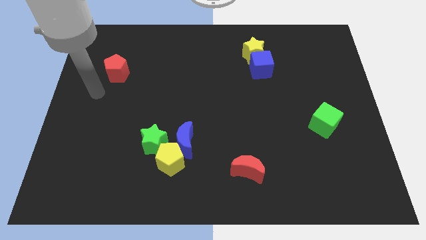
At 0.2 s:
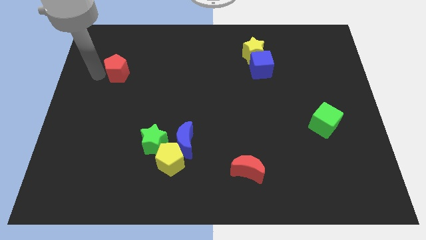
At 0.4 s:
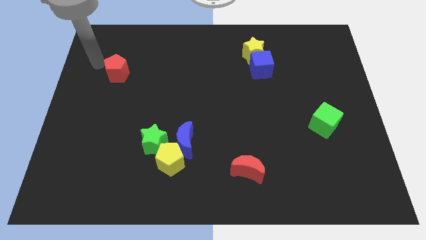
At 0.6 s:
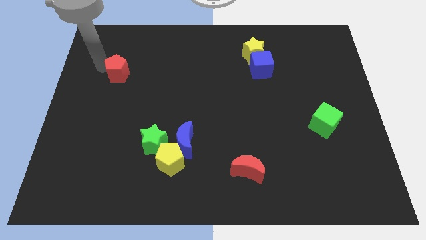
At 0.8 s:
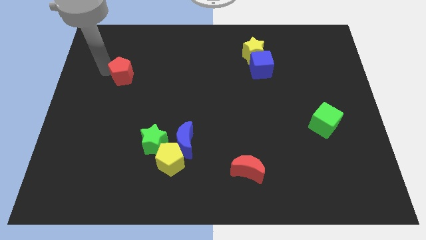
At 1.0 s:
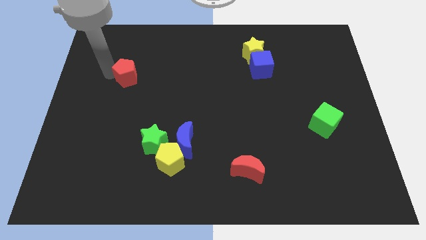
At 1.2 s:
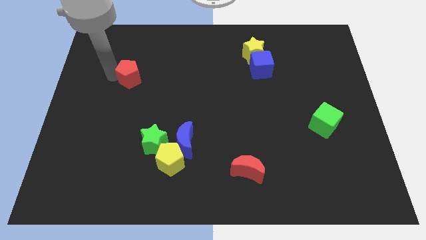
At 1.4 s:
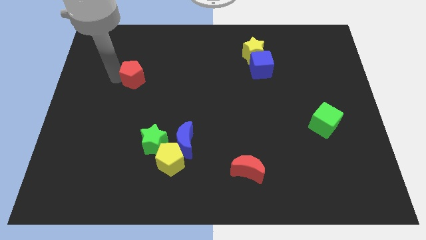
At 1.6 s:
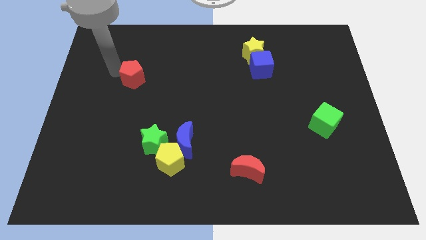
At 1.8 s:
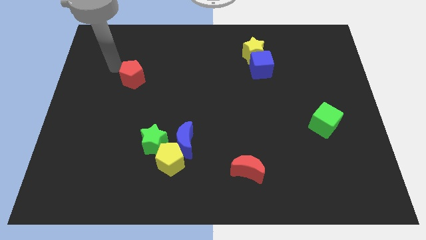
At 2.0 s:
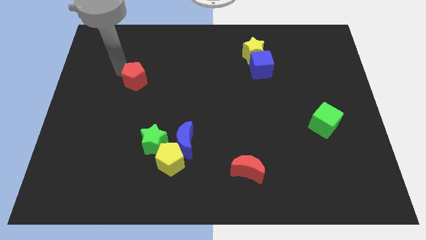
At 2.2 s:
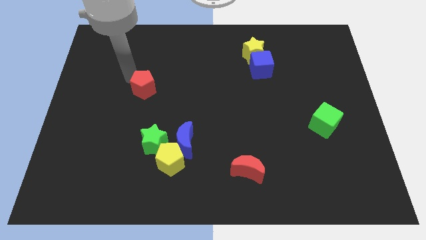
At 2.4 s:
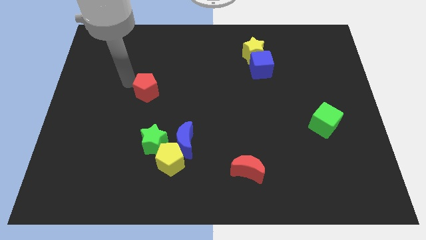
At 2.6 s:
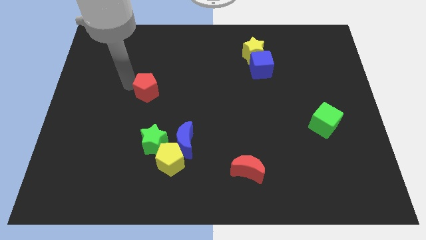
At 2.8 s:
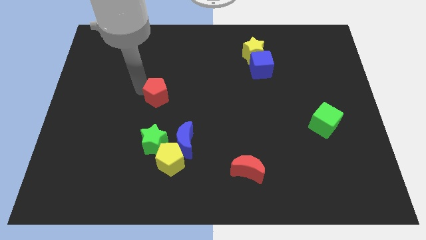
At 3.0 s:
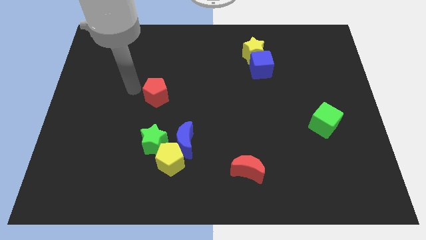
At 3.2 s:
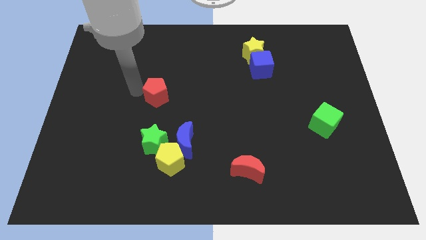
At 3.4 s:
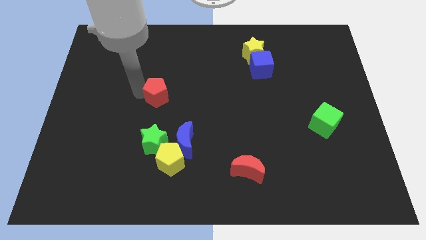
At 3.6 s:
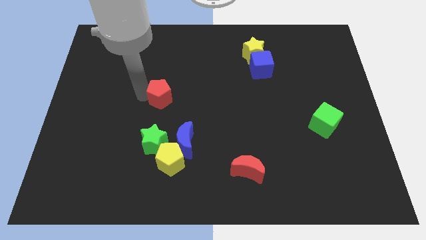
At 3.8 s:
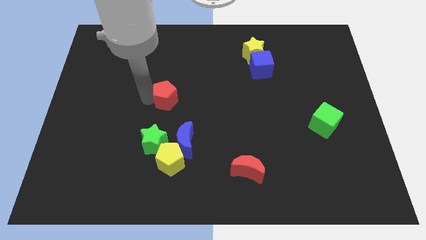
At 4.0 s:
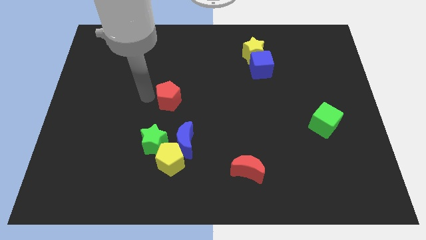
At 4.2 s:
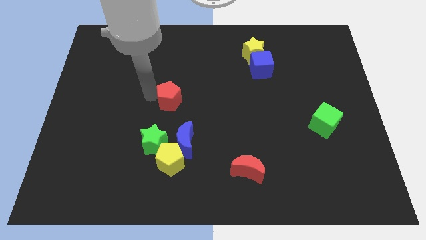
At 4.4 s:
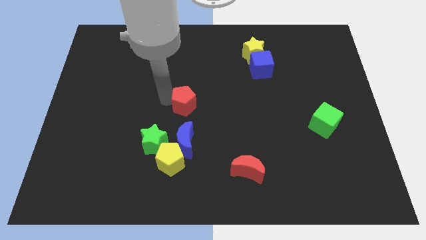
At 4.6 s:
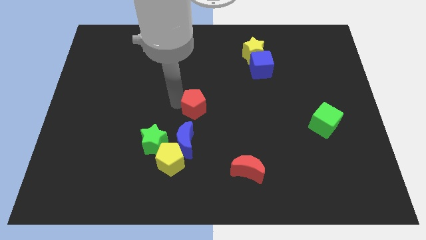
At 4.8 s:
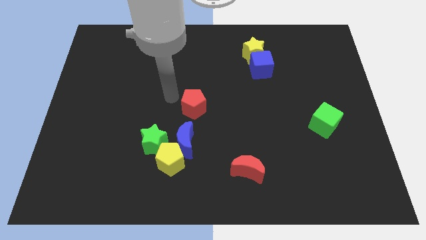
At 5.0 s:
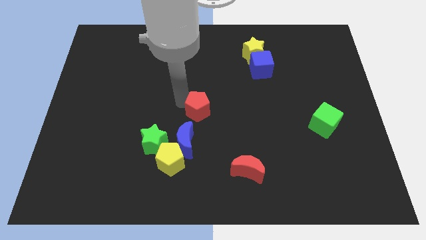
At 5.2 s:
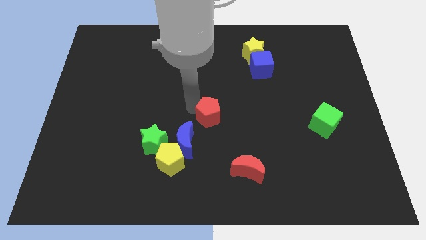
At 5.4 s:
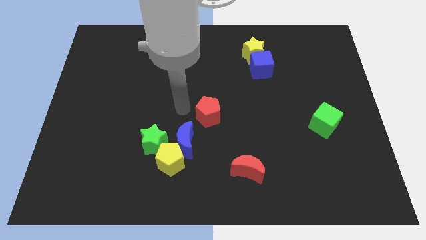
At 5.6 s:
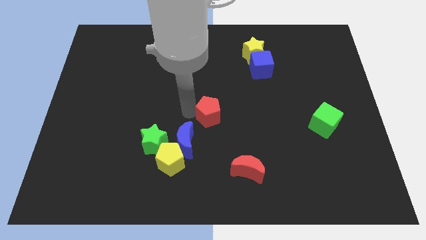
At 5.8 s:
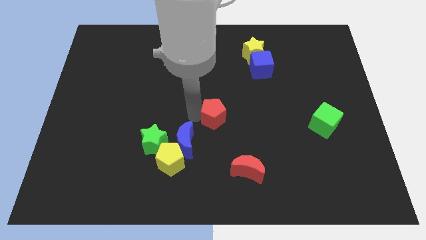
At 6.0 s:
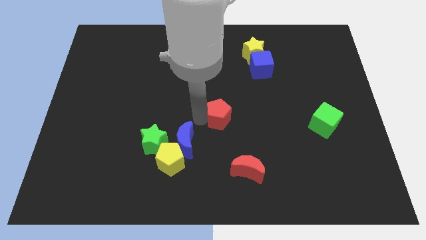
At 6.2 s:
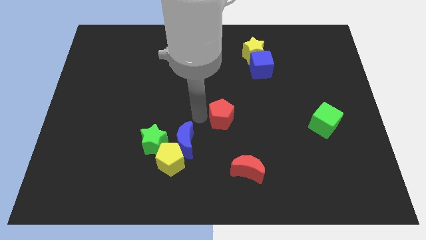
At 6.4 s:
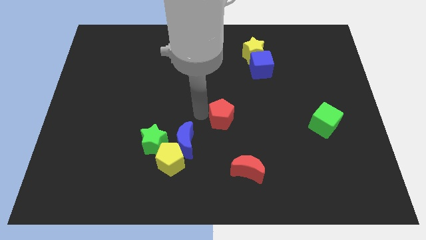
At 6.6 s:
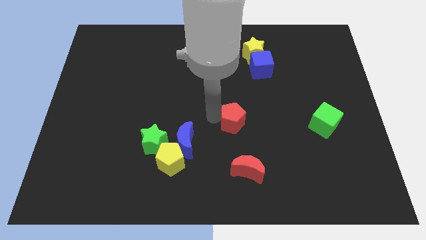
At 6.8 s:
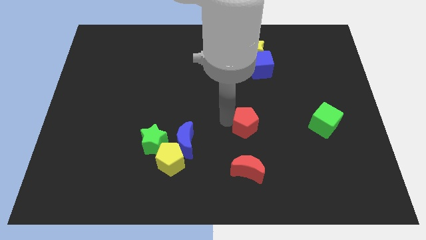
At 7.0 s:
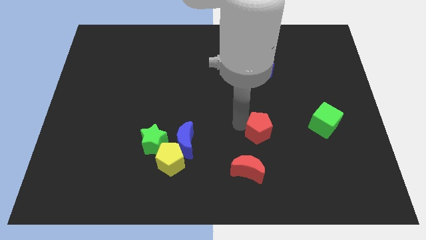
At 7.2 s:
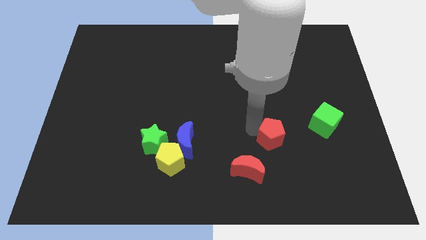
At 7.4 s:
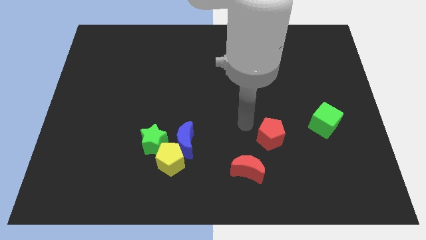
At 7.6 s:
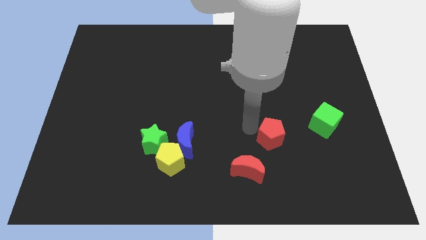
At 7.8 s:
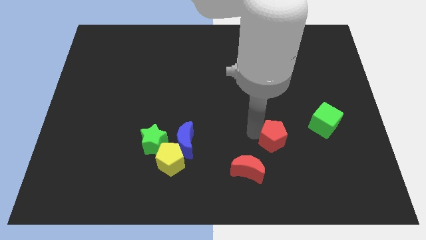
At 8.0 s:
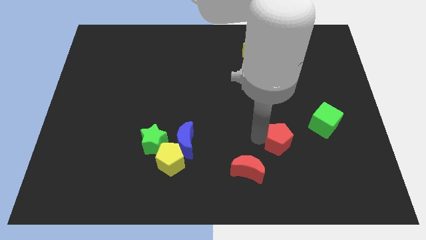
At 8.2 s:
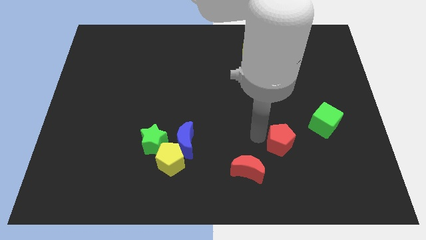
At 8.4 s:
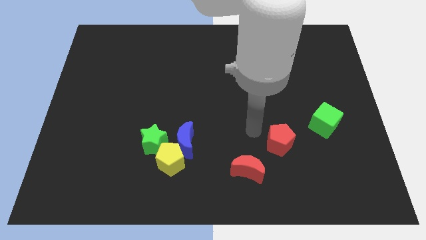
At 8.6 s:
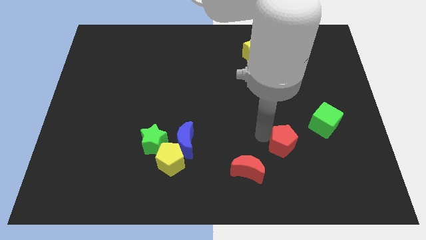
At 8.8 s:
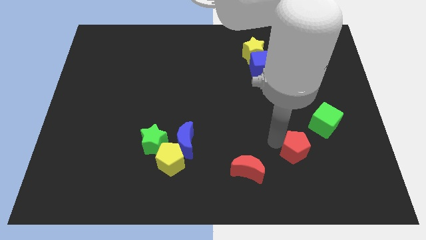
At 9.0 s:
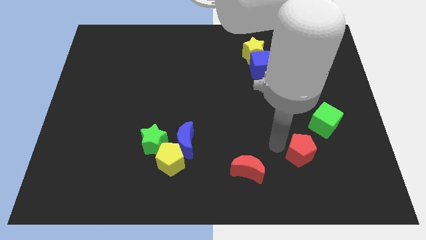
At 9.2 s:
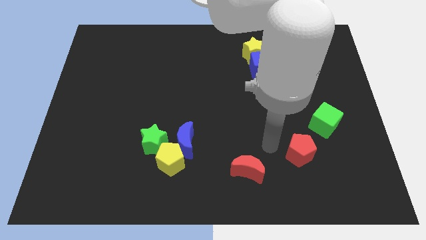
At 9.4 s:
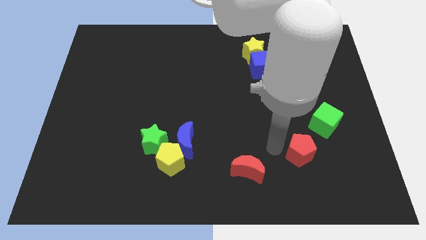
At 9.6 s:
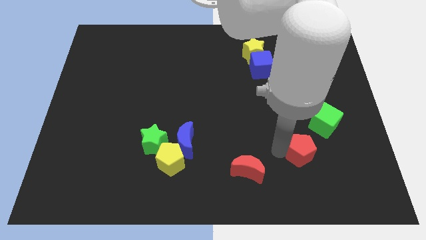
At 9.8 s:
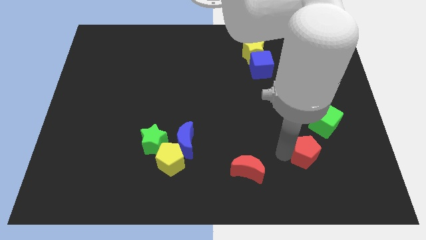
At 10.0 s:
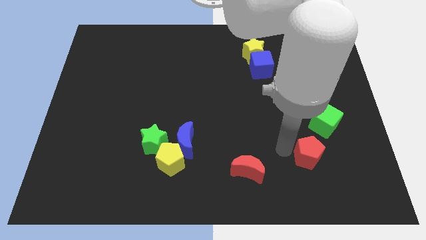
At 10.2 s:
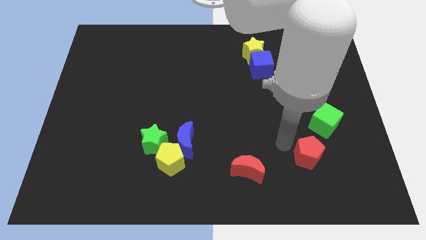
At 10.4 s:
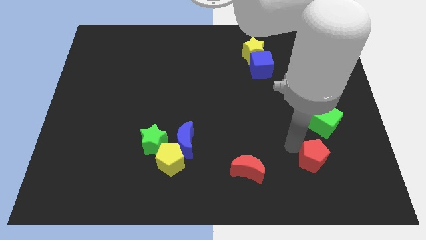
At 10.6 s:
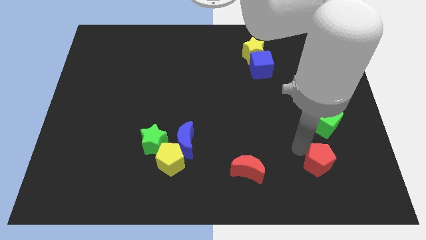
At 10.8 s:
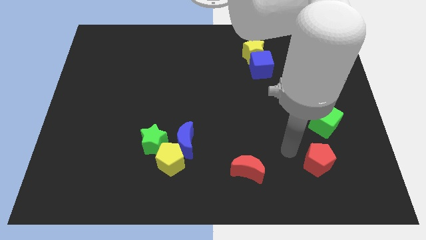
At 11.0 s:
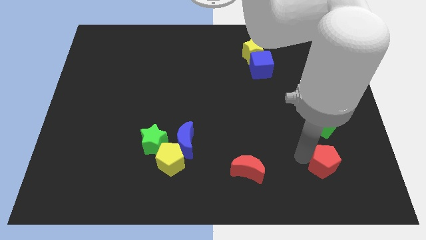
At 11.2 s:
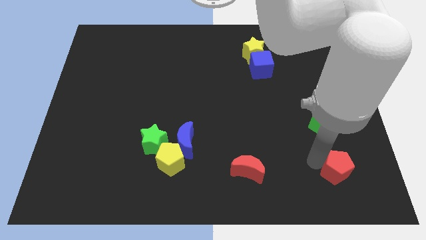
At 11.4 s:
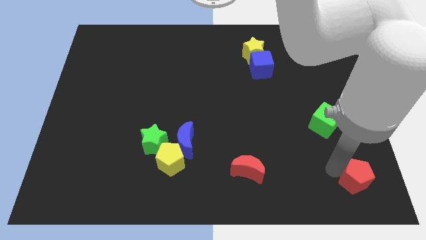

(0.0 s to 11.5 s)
move the red pentagon to the bottom right
